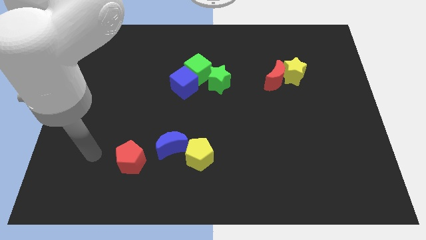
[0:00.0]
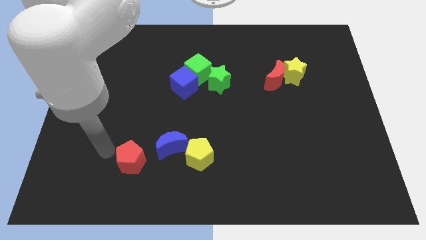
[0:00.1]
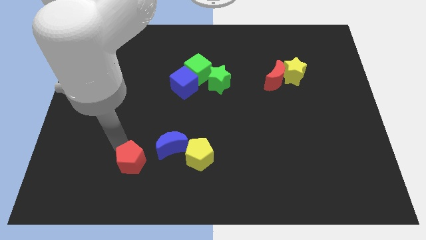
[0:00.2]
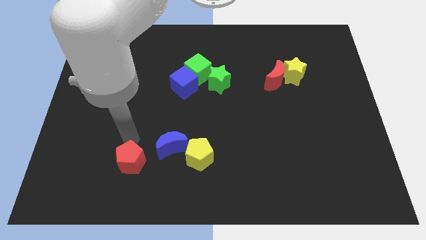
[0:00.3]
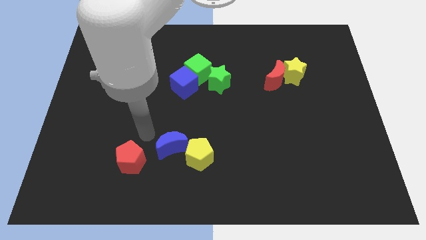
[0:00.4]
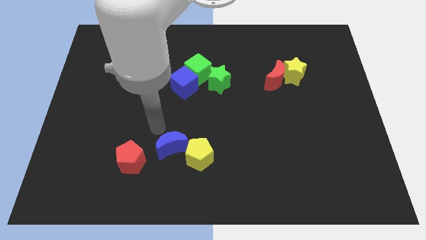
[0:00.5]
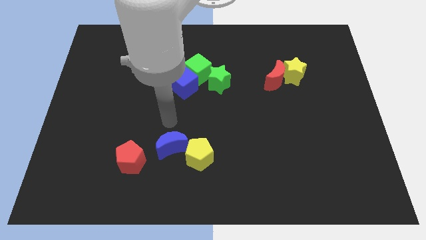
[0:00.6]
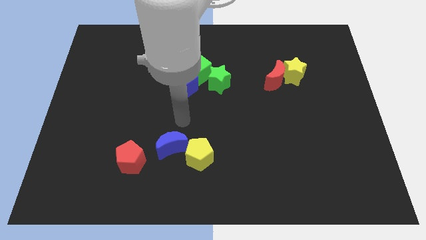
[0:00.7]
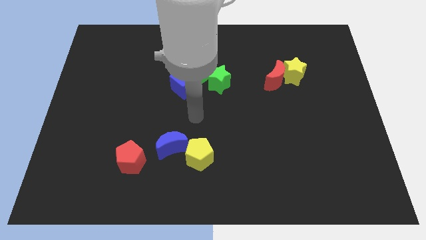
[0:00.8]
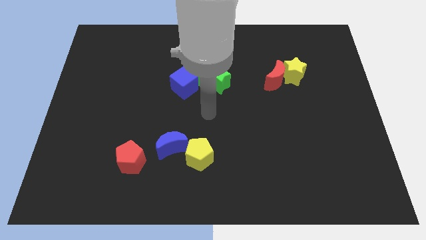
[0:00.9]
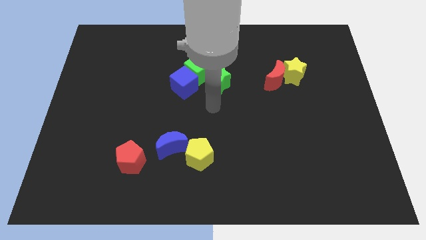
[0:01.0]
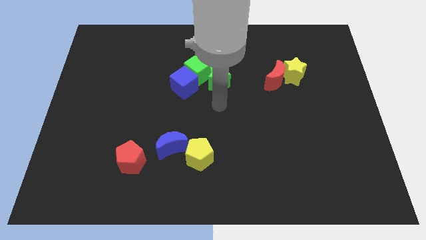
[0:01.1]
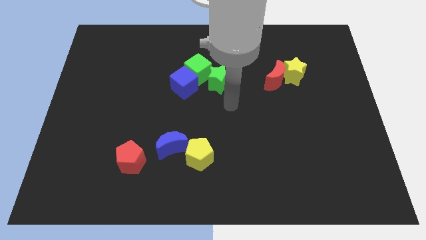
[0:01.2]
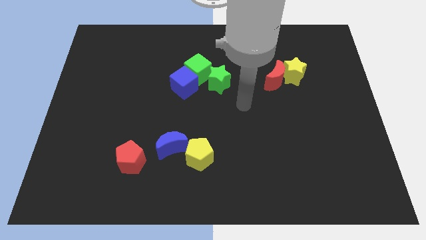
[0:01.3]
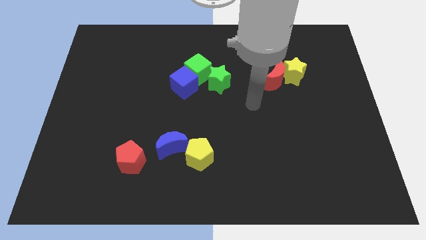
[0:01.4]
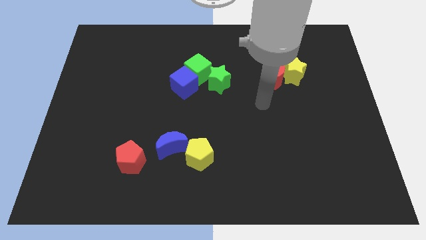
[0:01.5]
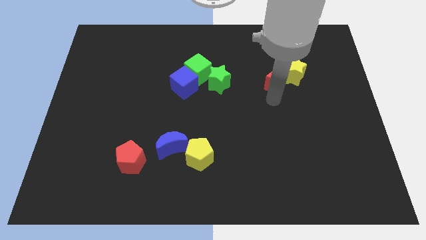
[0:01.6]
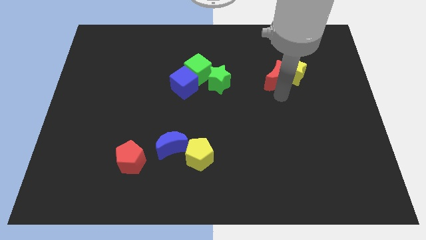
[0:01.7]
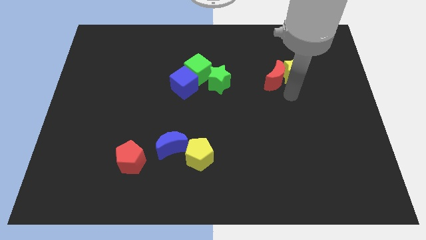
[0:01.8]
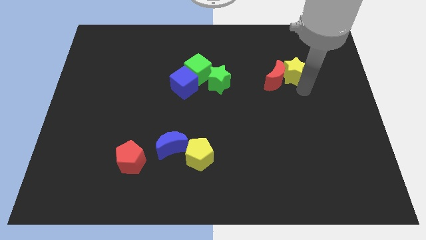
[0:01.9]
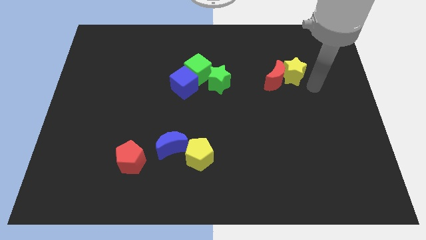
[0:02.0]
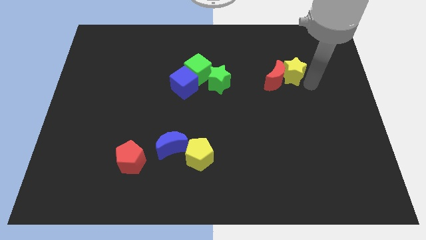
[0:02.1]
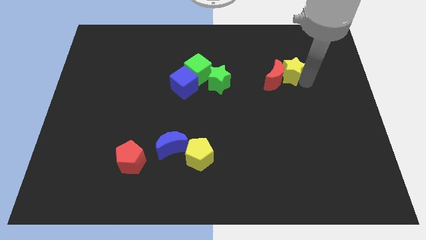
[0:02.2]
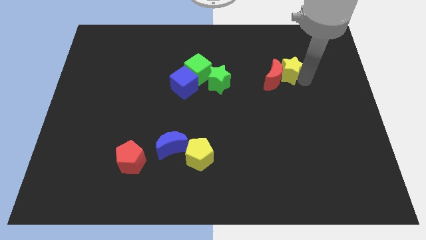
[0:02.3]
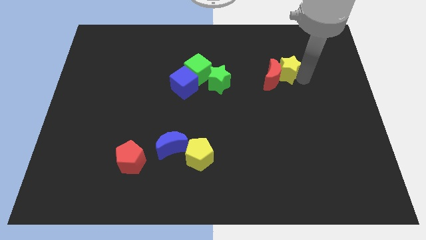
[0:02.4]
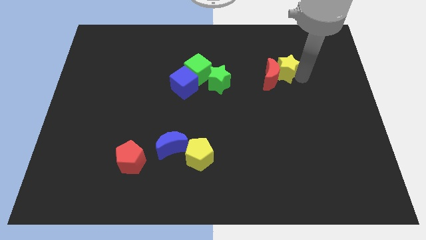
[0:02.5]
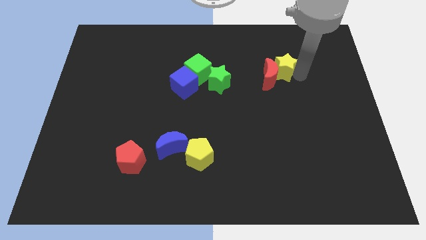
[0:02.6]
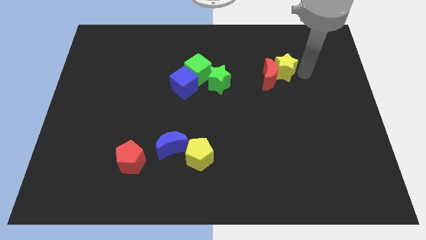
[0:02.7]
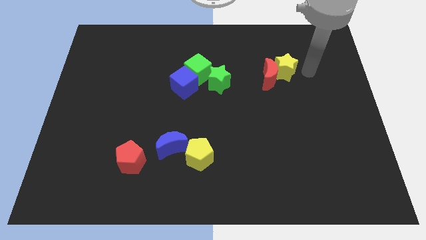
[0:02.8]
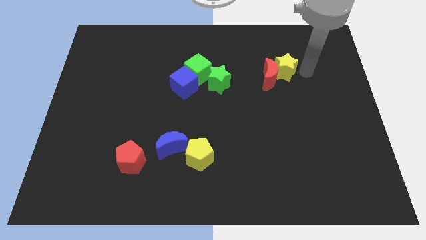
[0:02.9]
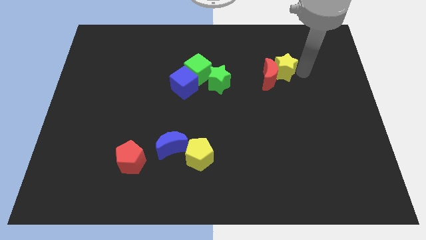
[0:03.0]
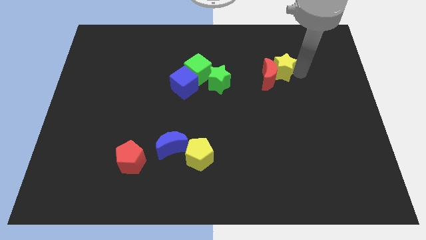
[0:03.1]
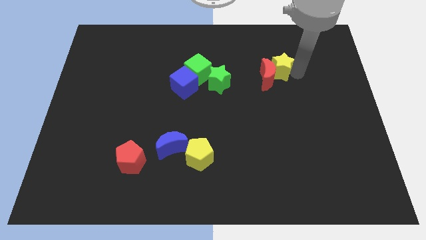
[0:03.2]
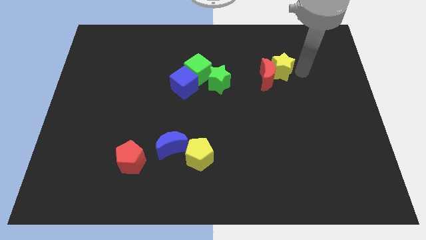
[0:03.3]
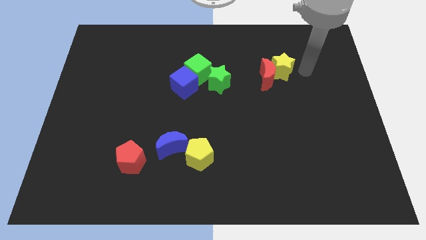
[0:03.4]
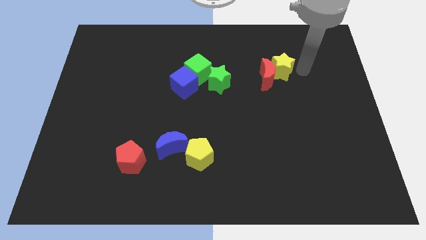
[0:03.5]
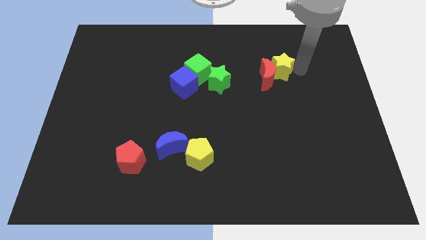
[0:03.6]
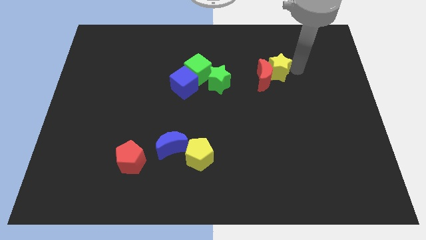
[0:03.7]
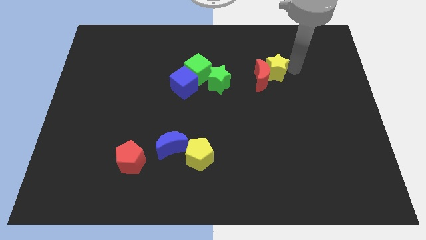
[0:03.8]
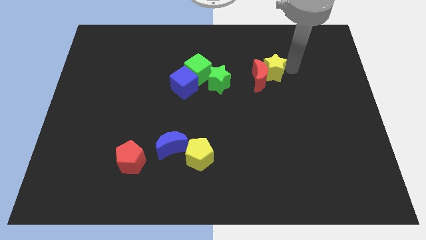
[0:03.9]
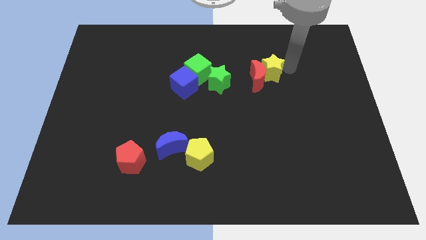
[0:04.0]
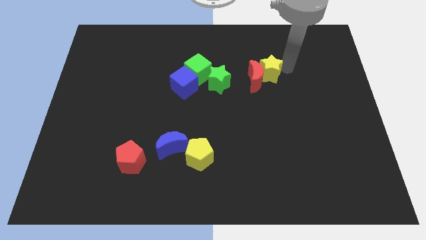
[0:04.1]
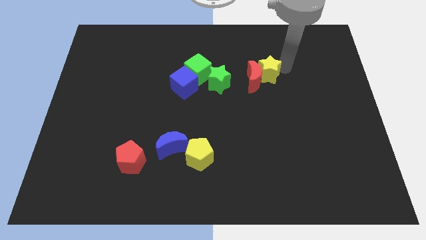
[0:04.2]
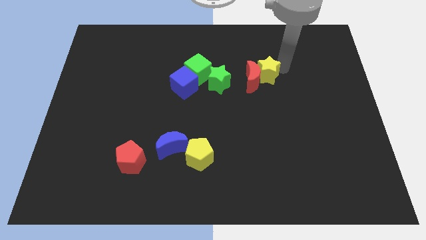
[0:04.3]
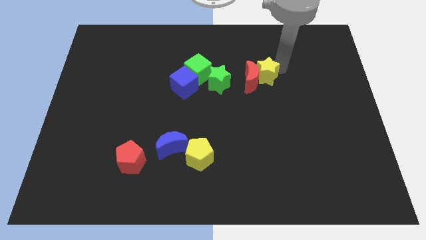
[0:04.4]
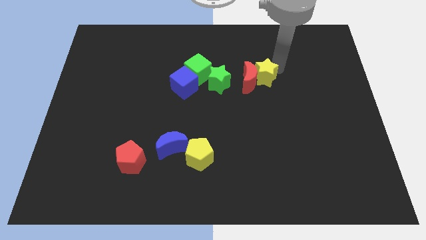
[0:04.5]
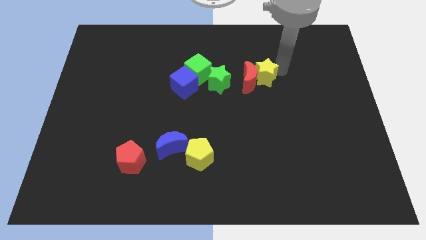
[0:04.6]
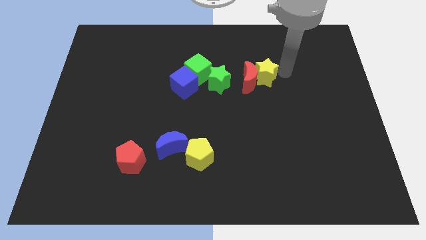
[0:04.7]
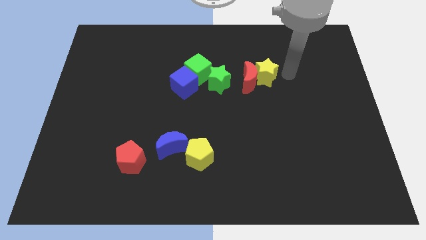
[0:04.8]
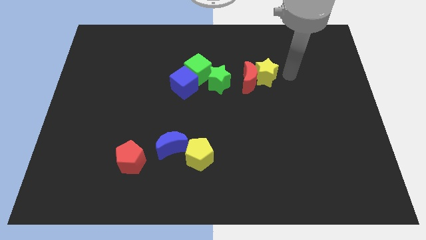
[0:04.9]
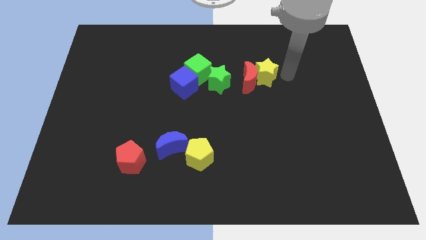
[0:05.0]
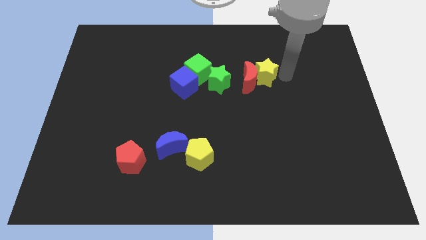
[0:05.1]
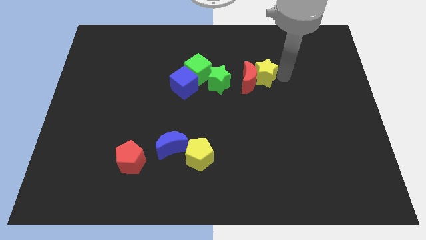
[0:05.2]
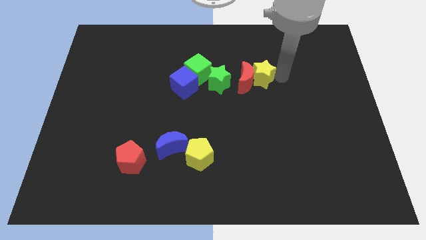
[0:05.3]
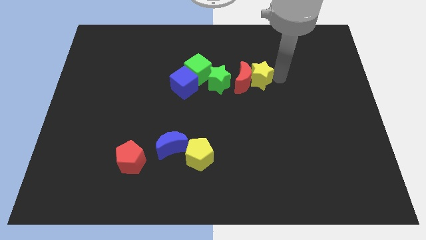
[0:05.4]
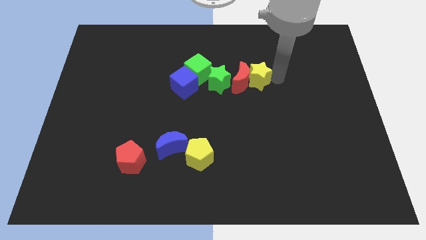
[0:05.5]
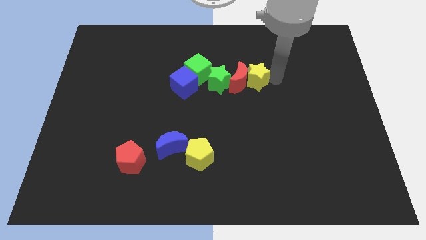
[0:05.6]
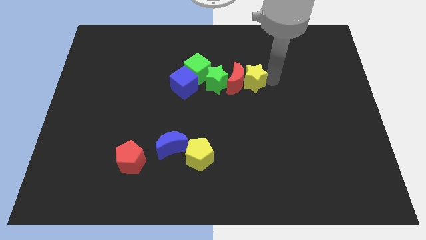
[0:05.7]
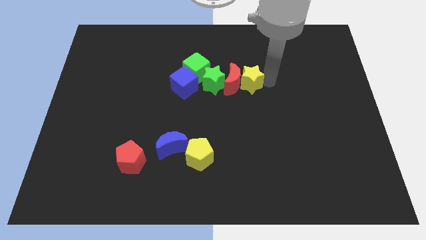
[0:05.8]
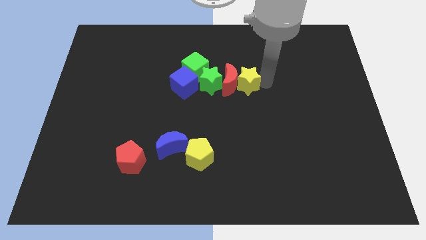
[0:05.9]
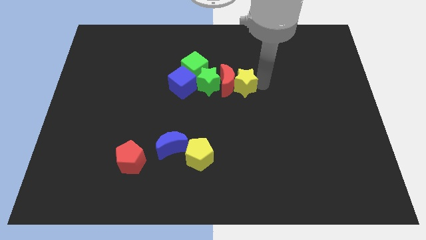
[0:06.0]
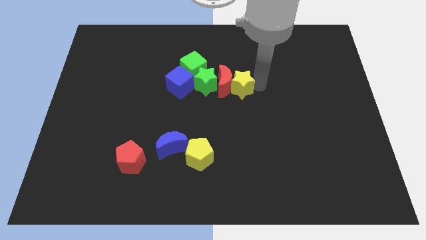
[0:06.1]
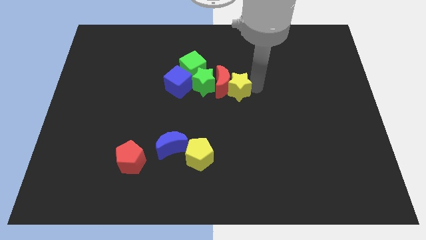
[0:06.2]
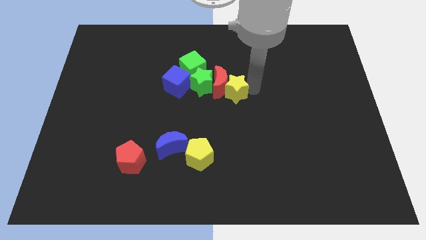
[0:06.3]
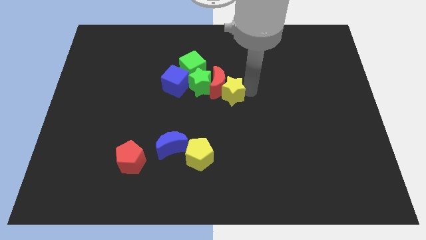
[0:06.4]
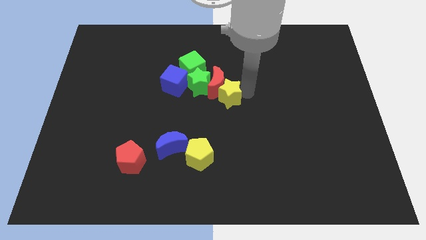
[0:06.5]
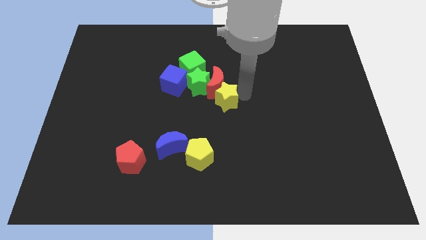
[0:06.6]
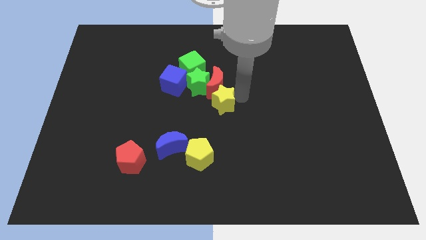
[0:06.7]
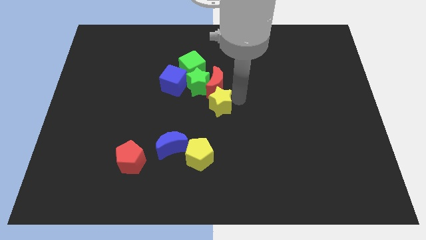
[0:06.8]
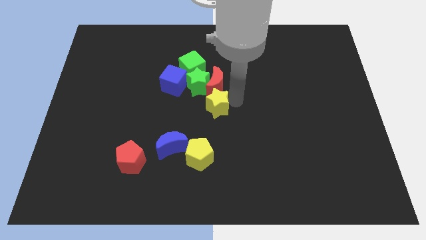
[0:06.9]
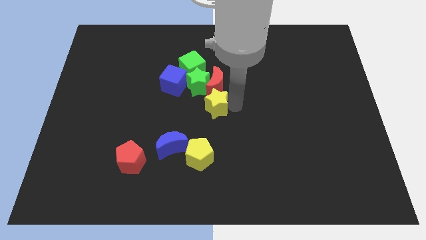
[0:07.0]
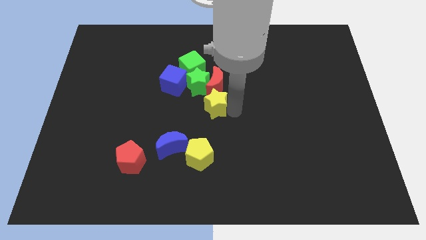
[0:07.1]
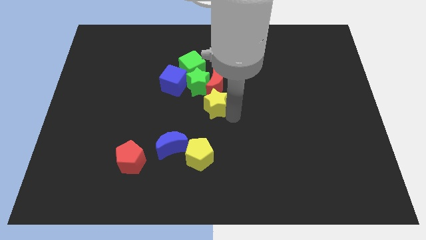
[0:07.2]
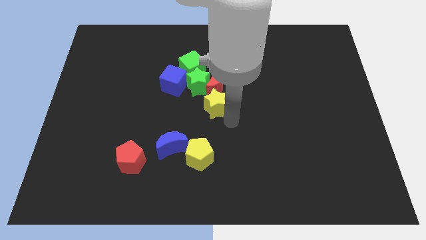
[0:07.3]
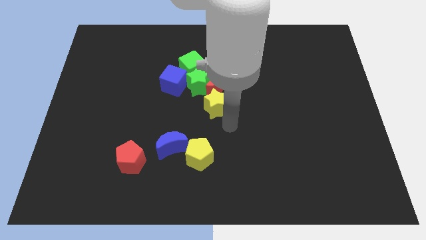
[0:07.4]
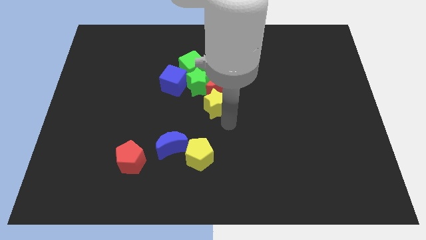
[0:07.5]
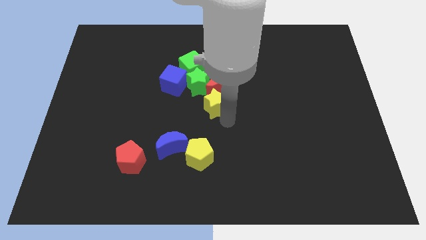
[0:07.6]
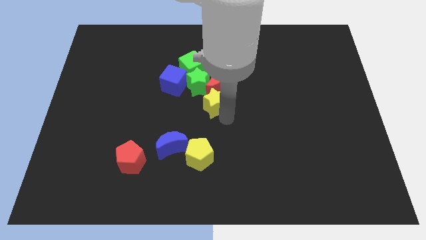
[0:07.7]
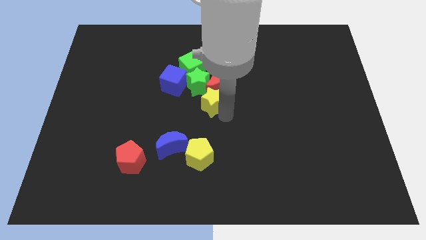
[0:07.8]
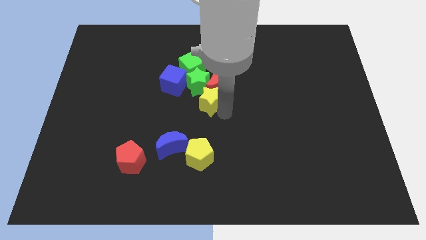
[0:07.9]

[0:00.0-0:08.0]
move the yellow star towards the green star
